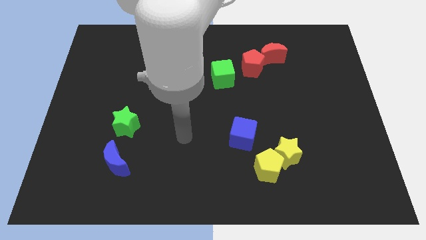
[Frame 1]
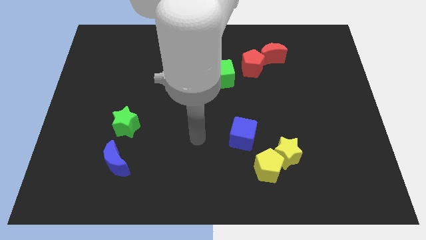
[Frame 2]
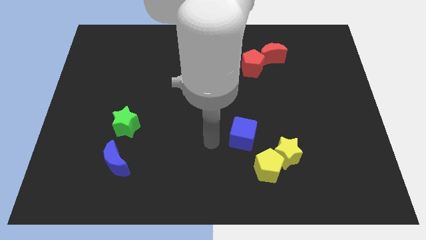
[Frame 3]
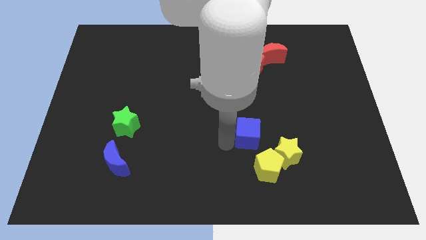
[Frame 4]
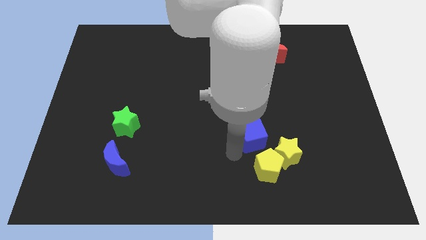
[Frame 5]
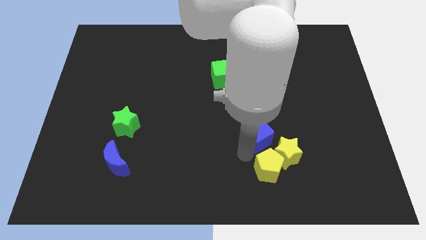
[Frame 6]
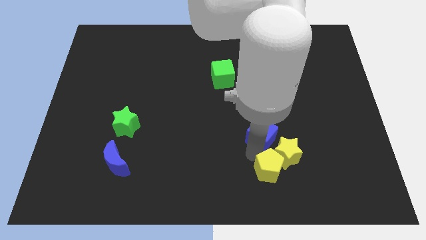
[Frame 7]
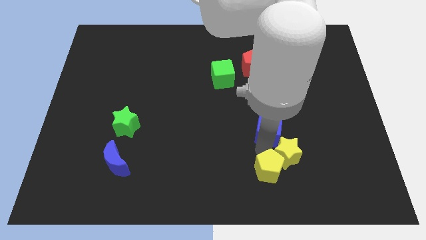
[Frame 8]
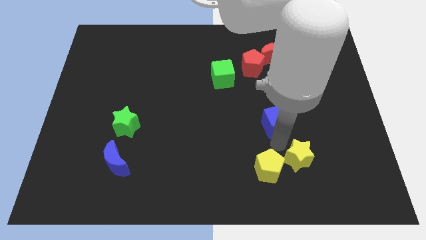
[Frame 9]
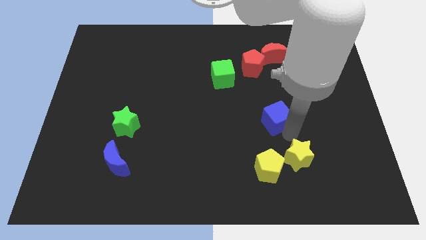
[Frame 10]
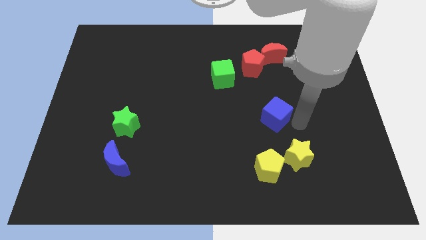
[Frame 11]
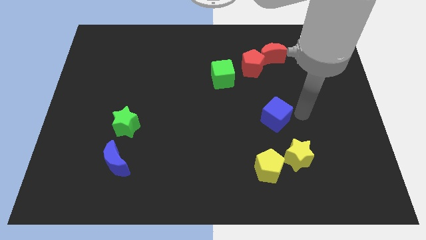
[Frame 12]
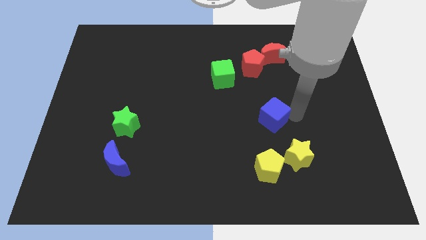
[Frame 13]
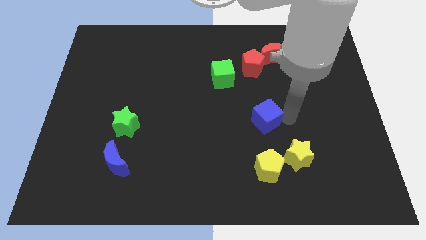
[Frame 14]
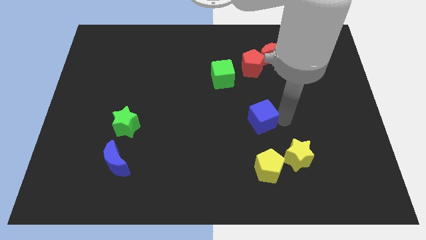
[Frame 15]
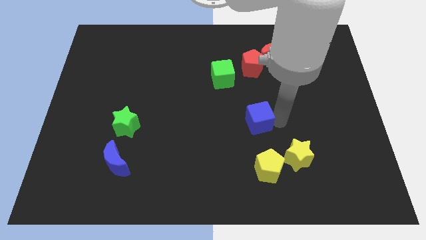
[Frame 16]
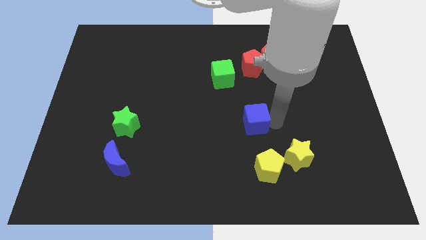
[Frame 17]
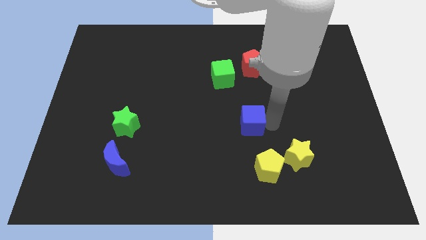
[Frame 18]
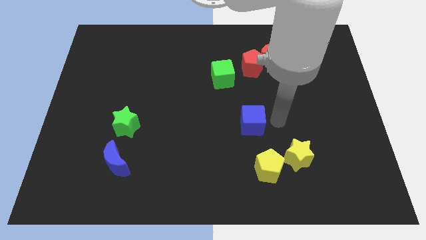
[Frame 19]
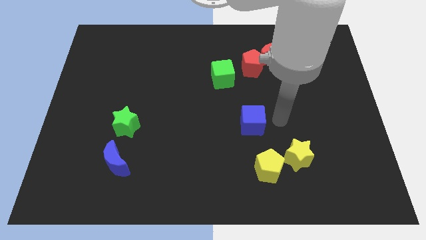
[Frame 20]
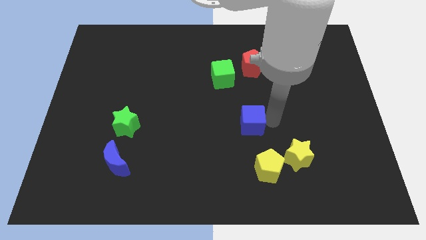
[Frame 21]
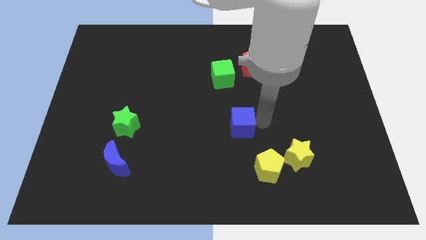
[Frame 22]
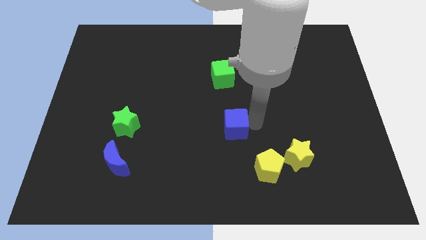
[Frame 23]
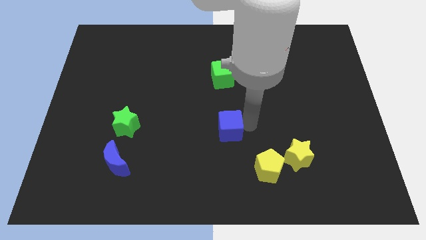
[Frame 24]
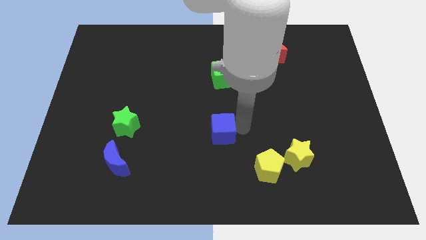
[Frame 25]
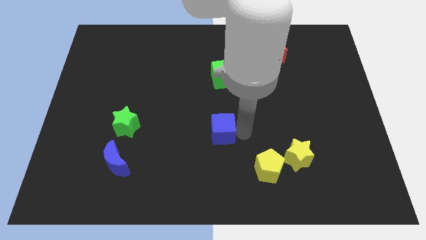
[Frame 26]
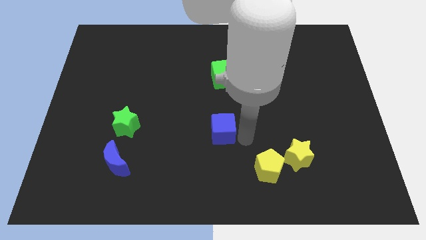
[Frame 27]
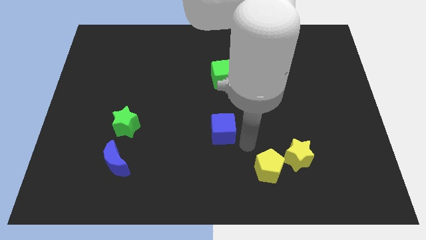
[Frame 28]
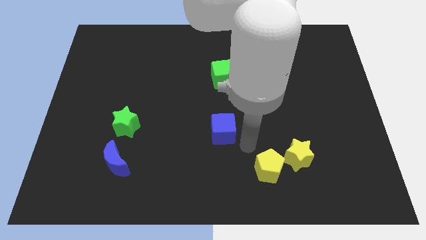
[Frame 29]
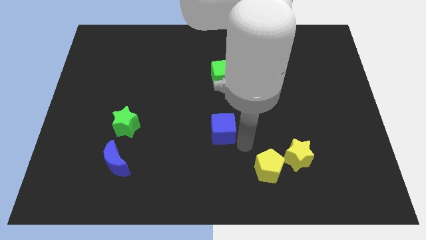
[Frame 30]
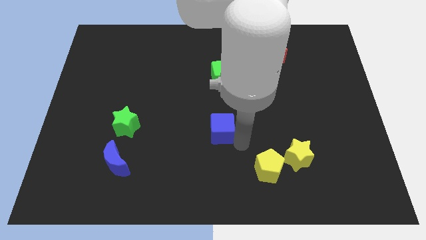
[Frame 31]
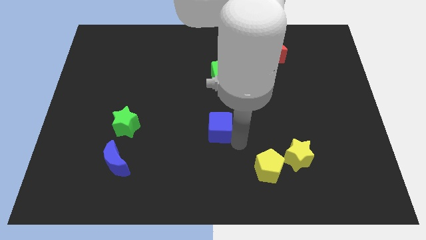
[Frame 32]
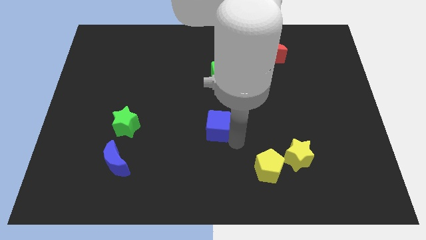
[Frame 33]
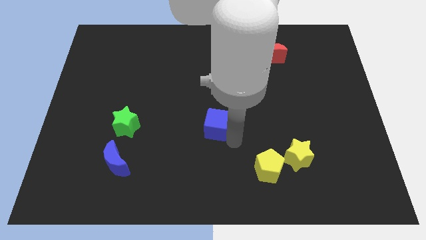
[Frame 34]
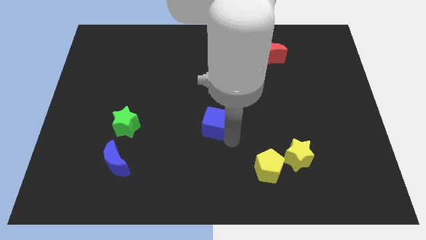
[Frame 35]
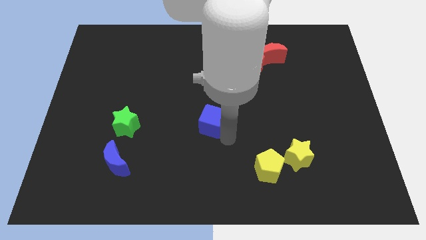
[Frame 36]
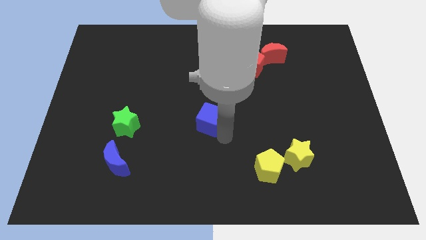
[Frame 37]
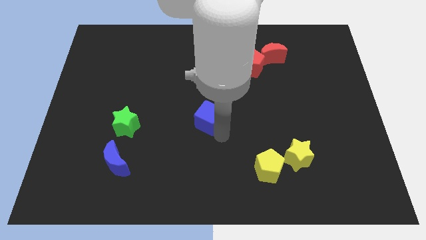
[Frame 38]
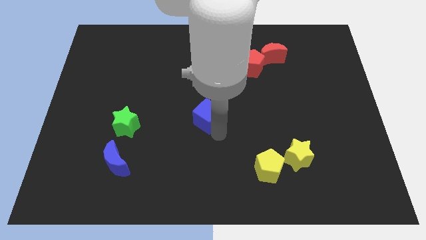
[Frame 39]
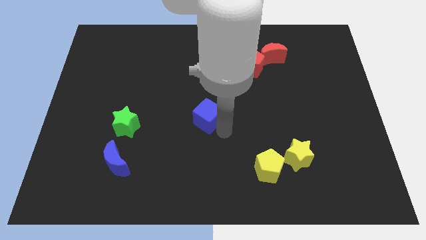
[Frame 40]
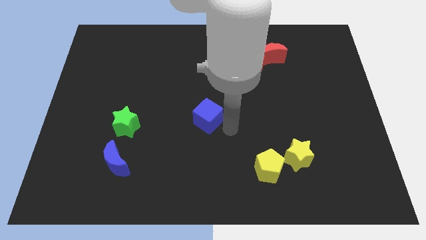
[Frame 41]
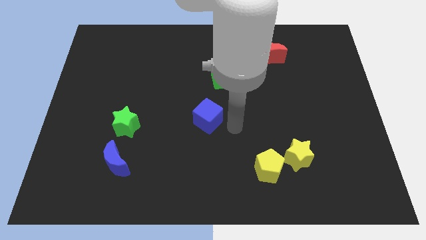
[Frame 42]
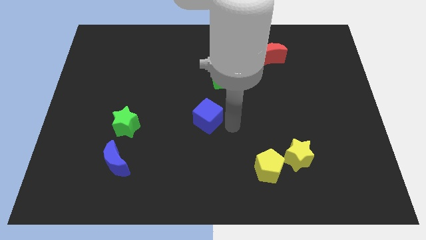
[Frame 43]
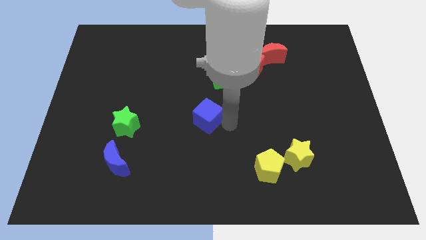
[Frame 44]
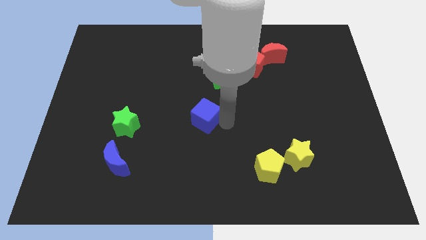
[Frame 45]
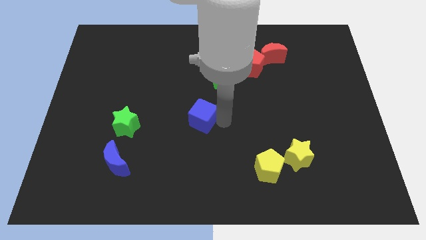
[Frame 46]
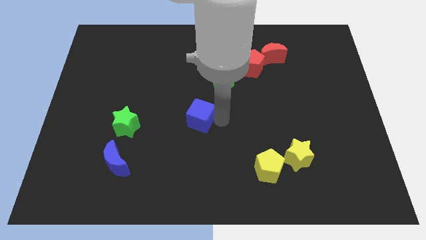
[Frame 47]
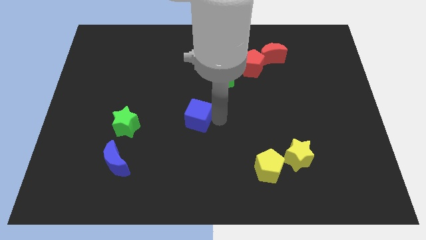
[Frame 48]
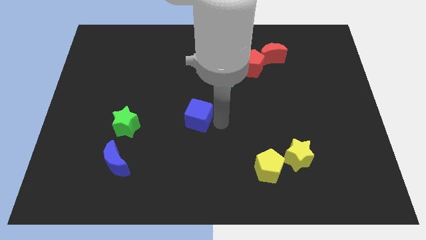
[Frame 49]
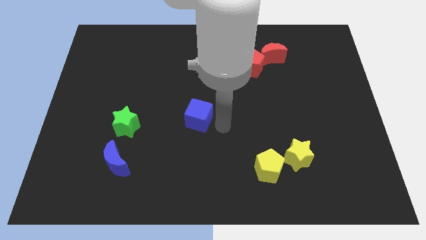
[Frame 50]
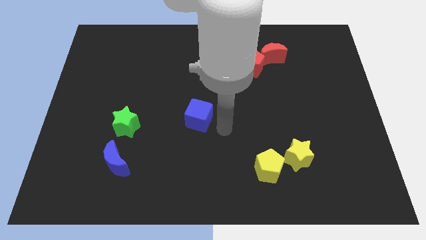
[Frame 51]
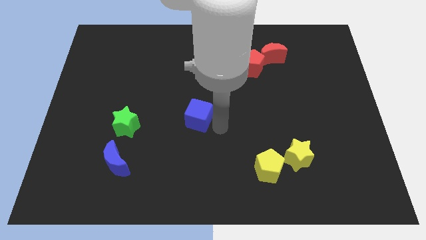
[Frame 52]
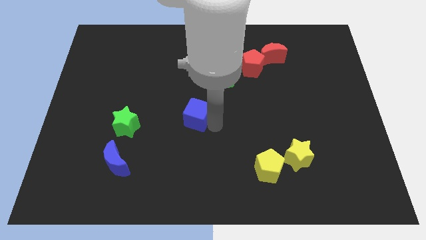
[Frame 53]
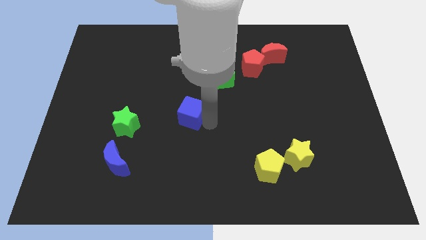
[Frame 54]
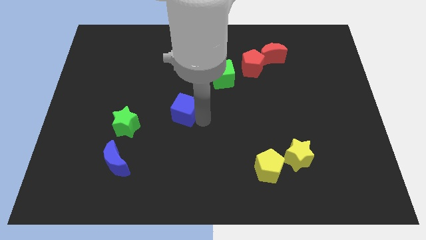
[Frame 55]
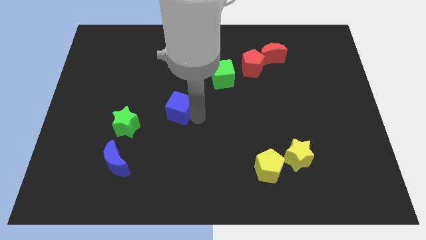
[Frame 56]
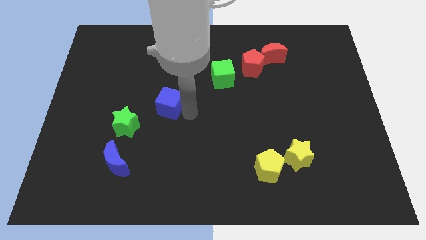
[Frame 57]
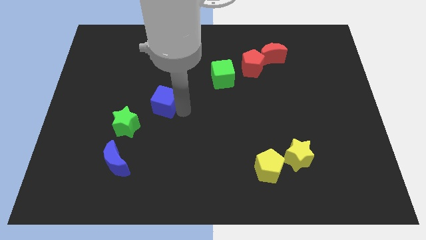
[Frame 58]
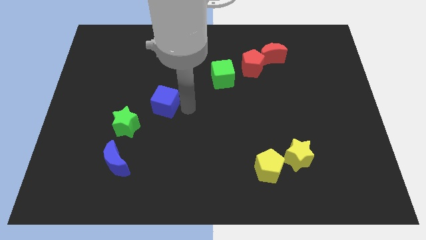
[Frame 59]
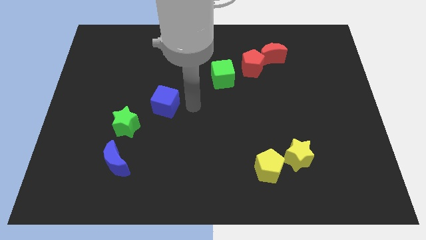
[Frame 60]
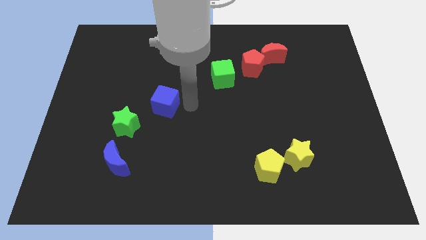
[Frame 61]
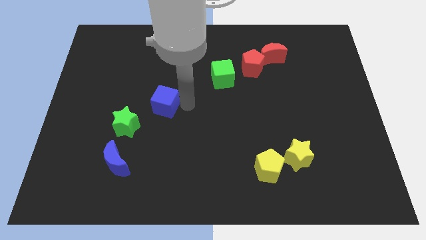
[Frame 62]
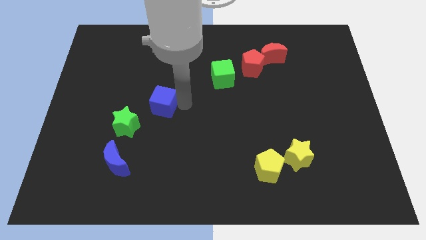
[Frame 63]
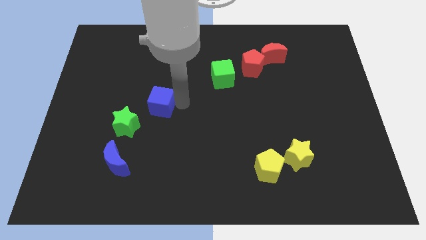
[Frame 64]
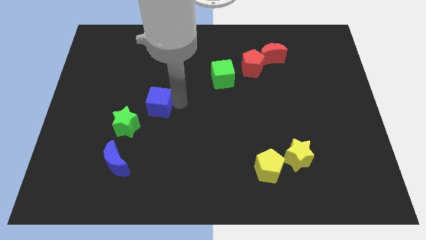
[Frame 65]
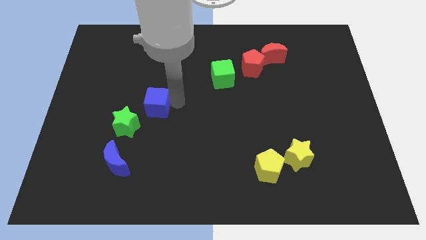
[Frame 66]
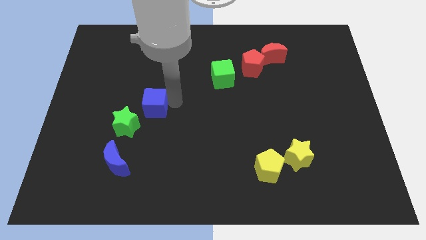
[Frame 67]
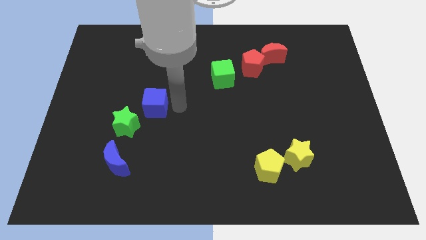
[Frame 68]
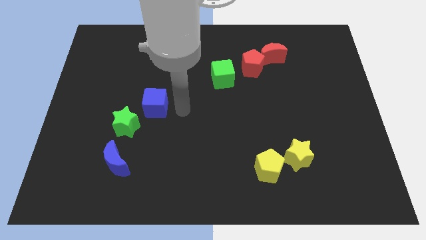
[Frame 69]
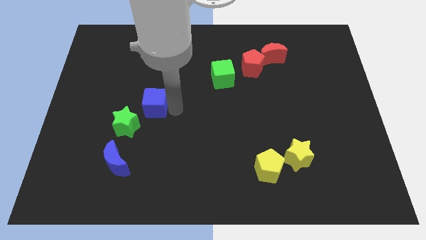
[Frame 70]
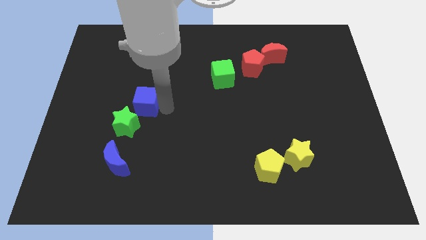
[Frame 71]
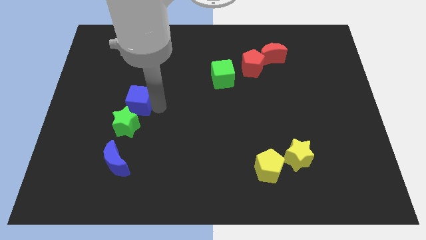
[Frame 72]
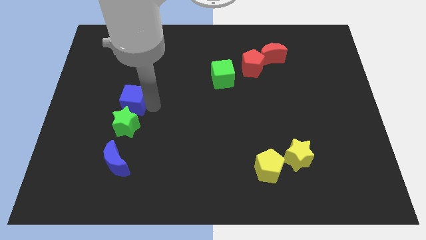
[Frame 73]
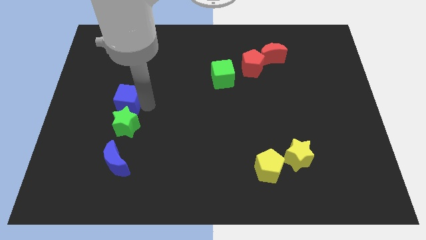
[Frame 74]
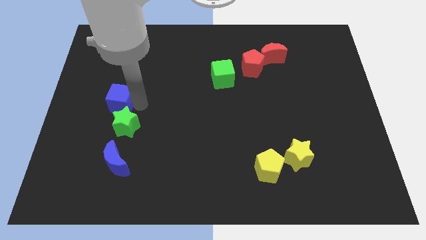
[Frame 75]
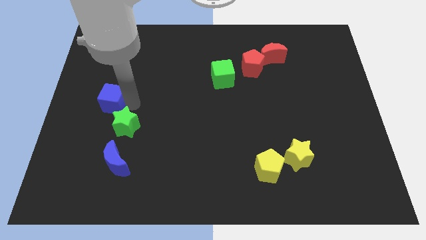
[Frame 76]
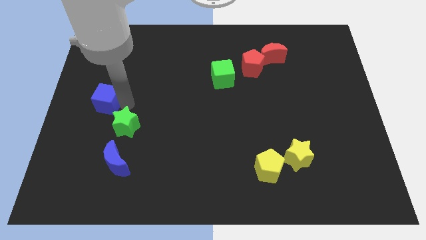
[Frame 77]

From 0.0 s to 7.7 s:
put the blue cube to the left side
